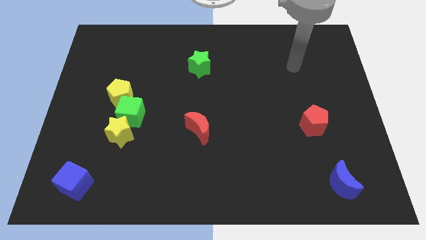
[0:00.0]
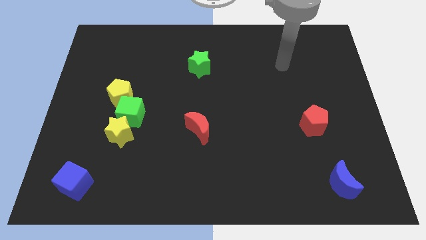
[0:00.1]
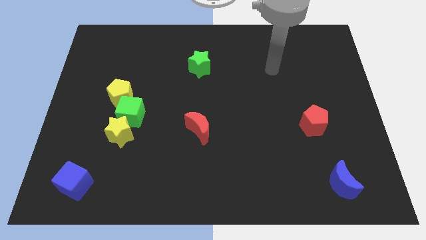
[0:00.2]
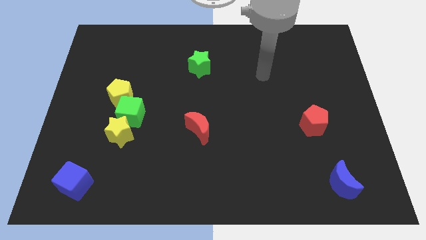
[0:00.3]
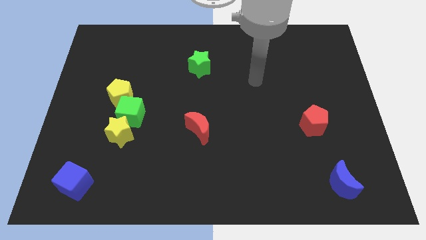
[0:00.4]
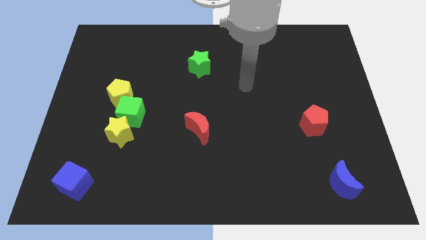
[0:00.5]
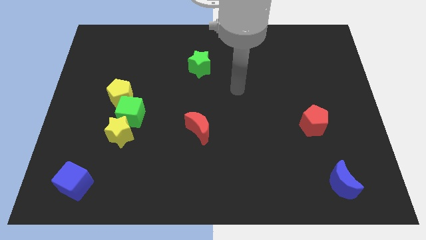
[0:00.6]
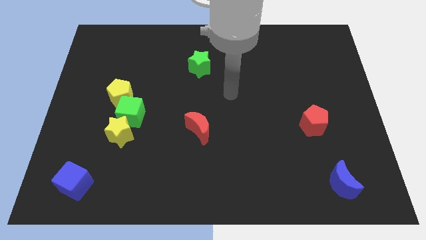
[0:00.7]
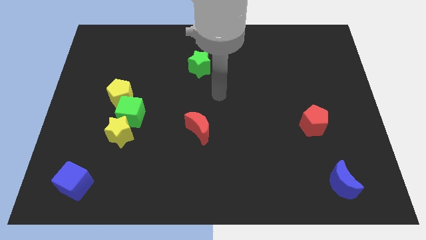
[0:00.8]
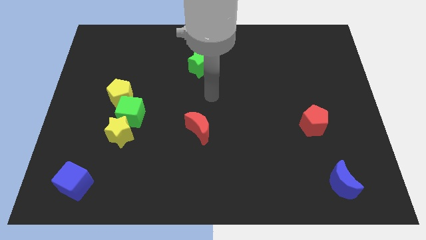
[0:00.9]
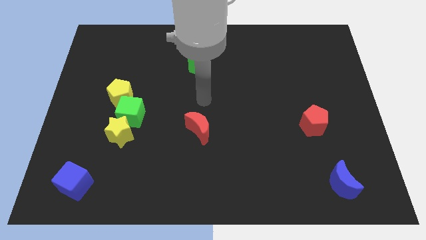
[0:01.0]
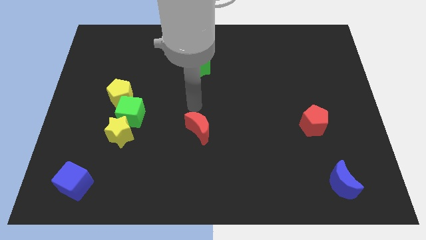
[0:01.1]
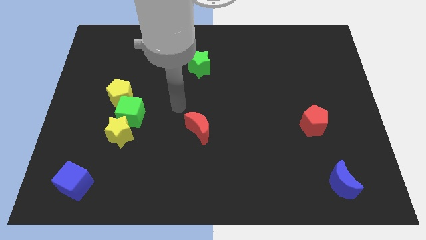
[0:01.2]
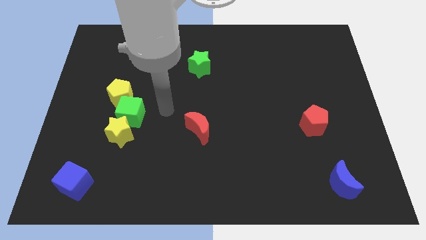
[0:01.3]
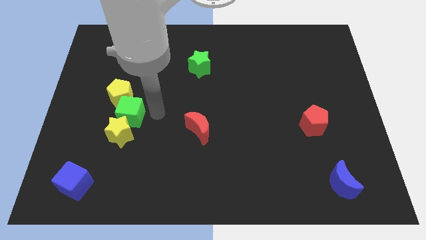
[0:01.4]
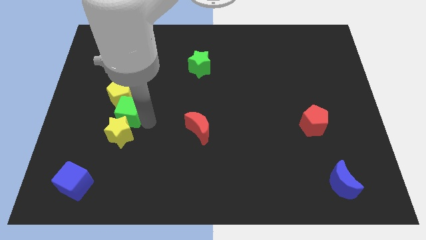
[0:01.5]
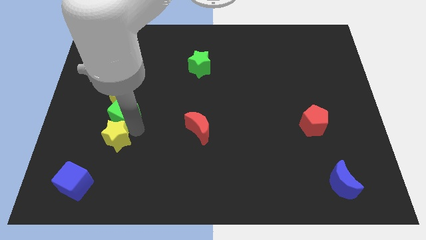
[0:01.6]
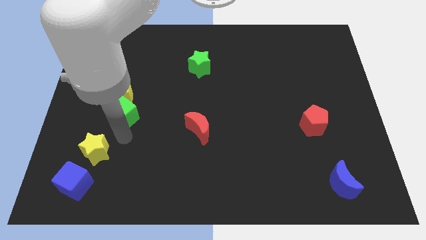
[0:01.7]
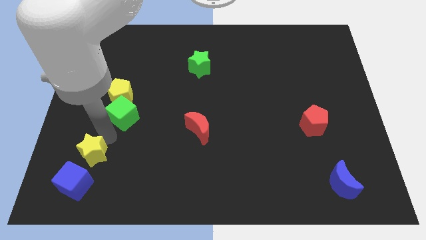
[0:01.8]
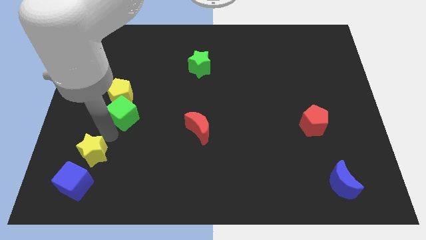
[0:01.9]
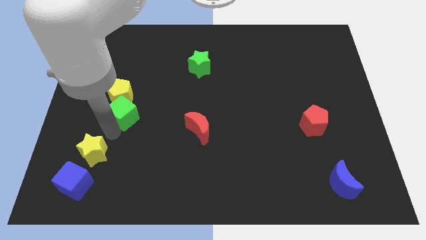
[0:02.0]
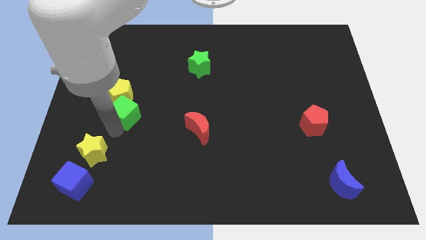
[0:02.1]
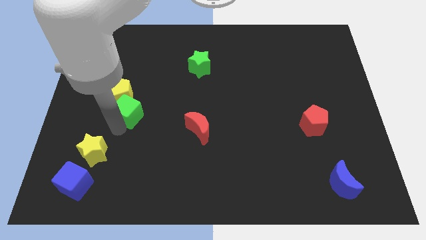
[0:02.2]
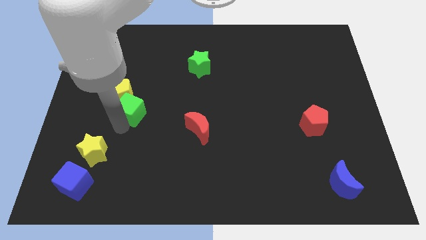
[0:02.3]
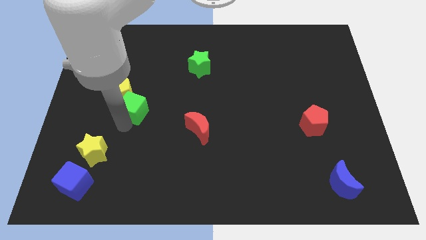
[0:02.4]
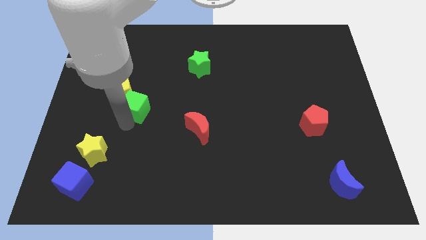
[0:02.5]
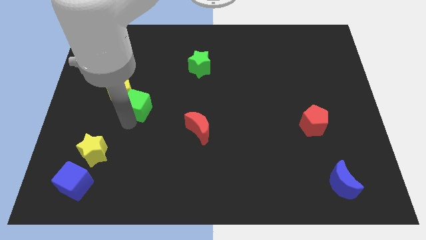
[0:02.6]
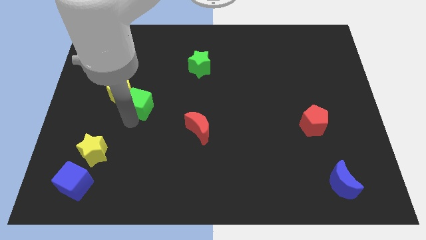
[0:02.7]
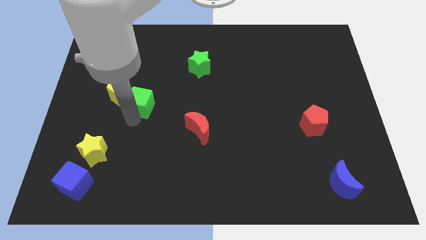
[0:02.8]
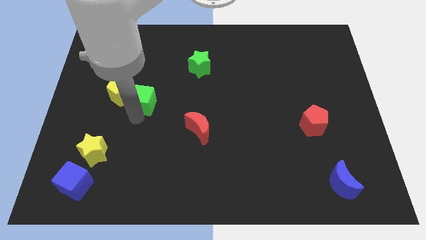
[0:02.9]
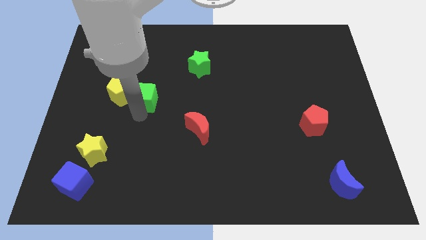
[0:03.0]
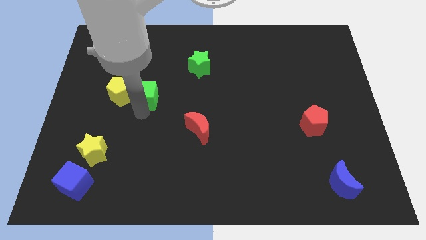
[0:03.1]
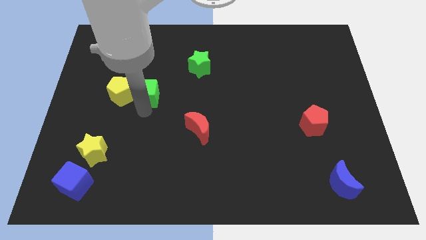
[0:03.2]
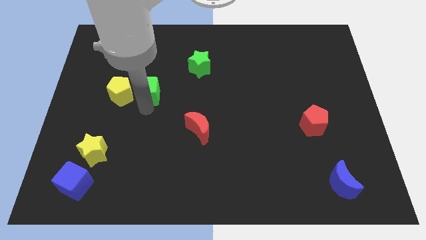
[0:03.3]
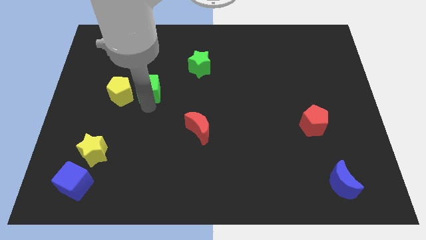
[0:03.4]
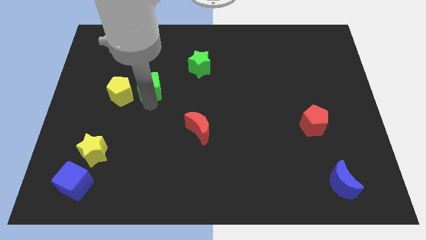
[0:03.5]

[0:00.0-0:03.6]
move the green cube a little upwards

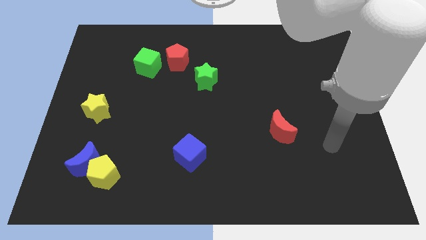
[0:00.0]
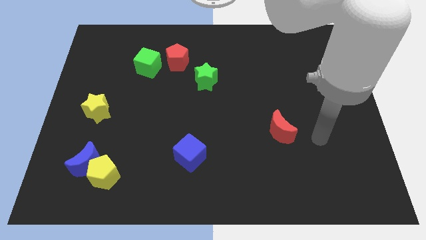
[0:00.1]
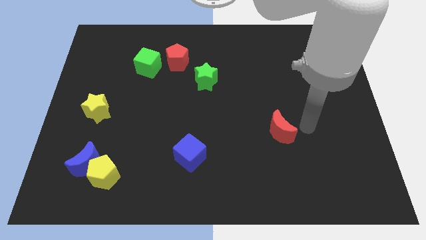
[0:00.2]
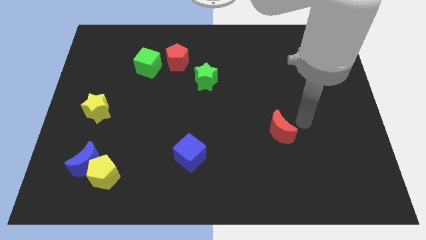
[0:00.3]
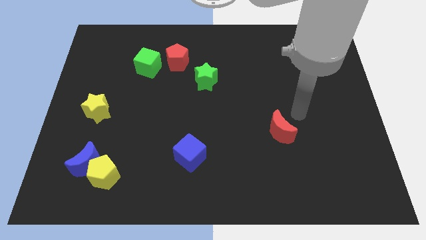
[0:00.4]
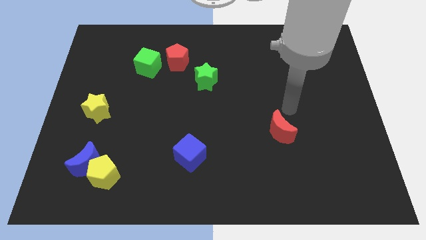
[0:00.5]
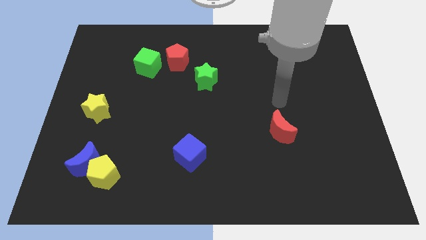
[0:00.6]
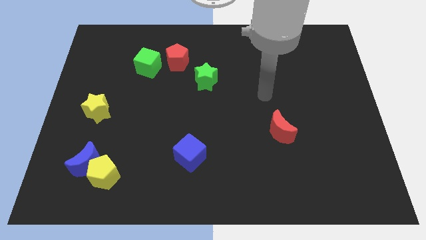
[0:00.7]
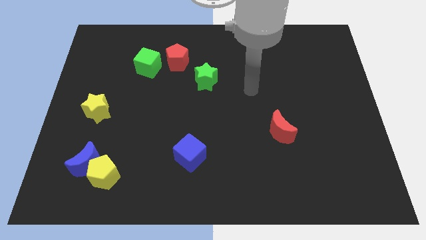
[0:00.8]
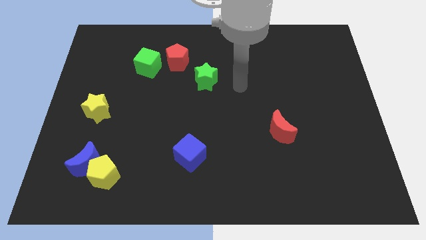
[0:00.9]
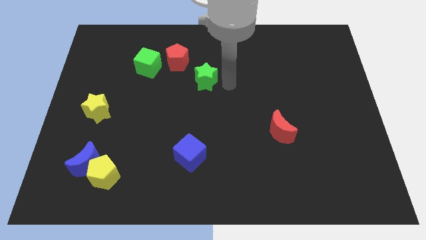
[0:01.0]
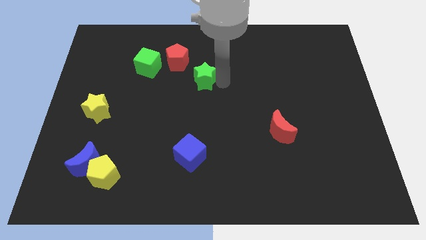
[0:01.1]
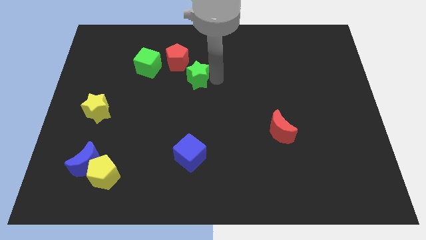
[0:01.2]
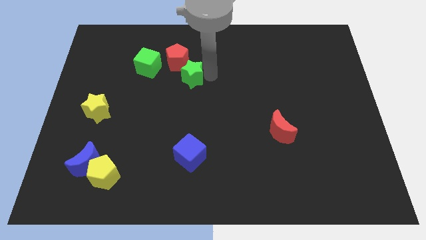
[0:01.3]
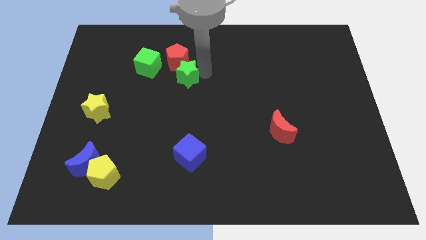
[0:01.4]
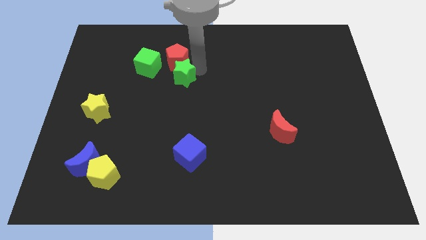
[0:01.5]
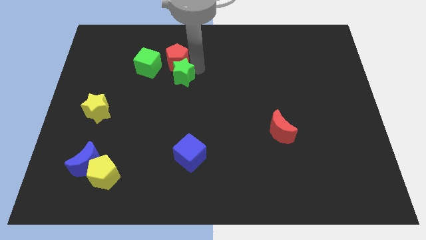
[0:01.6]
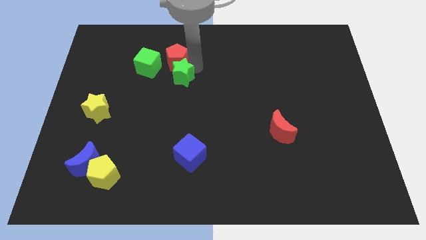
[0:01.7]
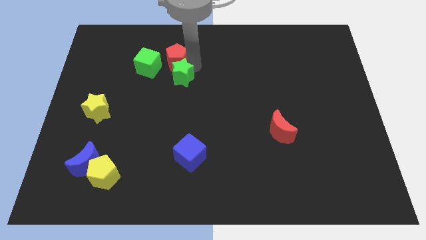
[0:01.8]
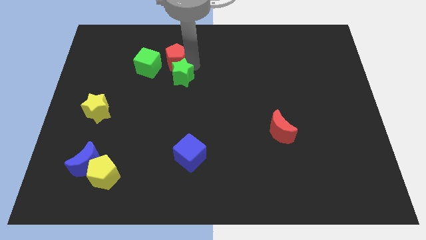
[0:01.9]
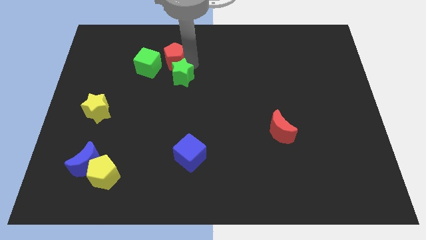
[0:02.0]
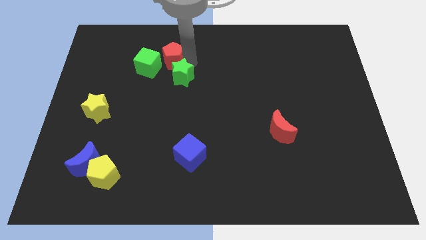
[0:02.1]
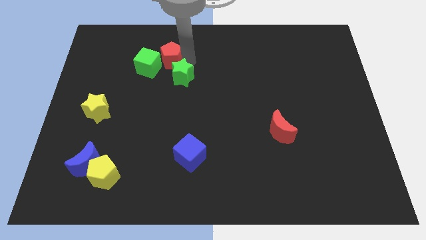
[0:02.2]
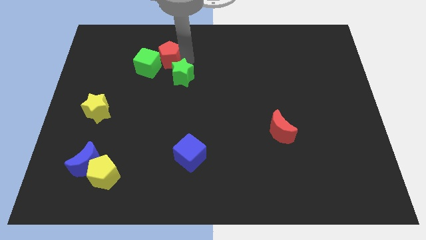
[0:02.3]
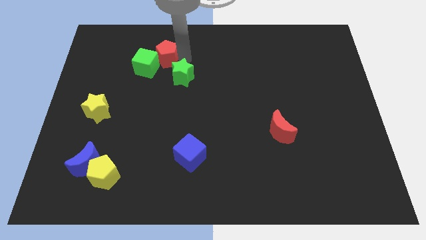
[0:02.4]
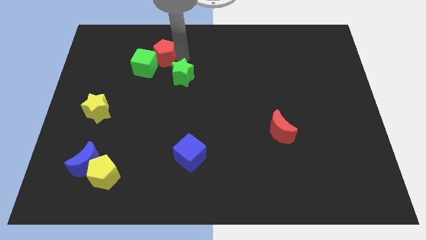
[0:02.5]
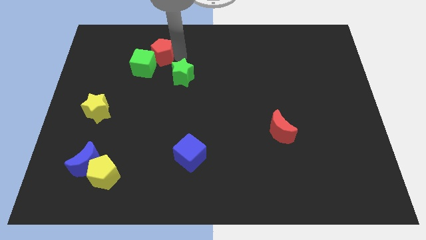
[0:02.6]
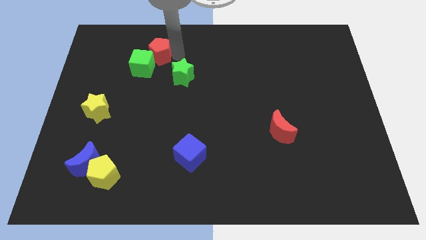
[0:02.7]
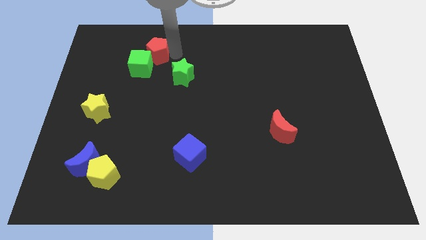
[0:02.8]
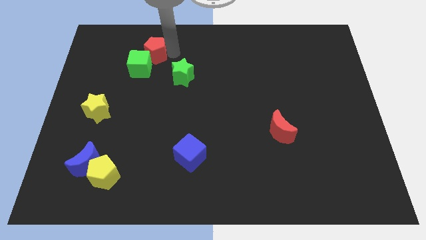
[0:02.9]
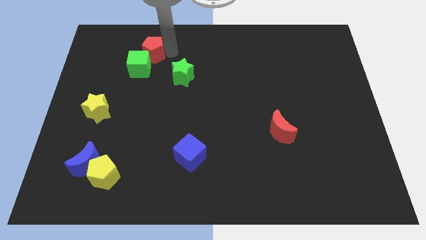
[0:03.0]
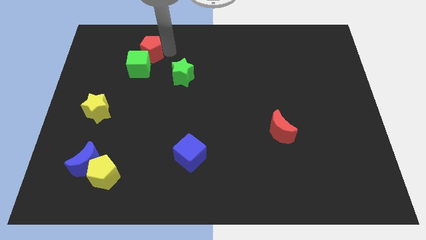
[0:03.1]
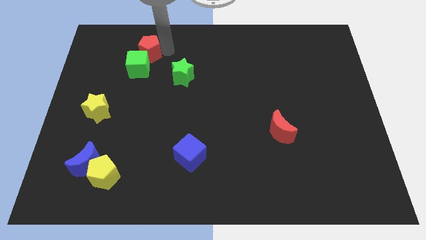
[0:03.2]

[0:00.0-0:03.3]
push the red pentagon to the left a little bit

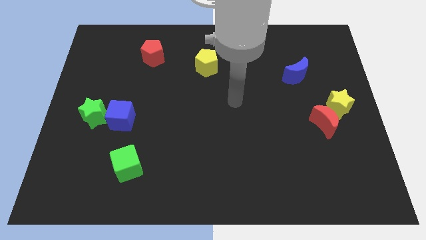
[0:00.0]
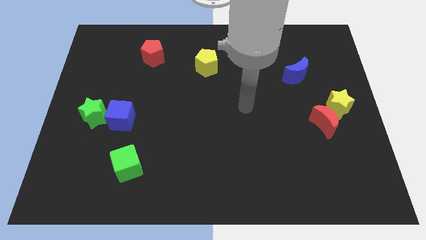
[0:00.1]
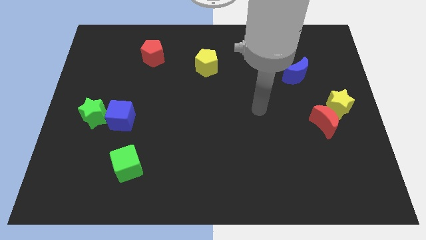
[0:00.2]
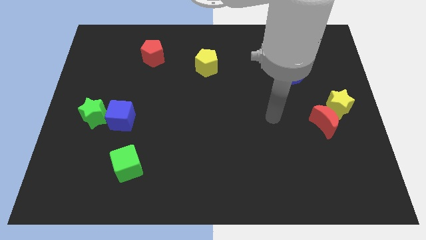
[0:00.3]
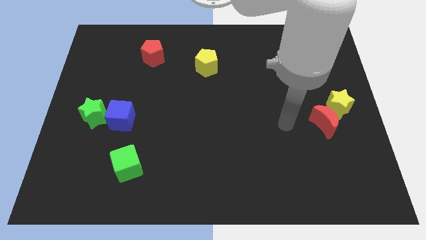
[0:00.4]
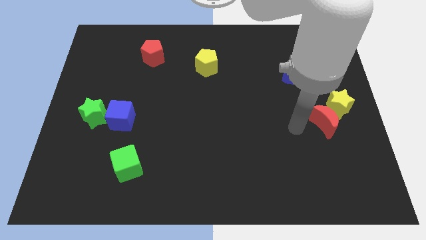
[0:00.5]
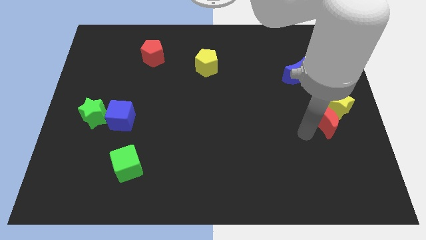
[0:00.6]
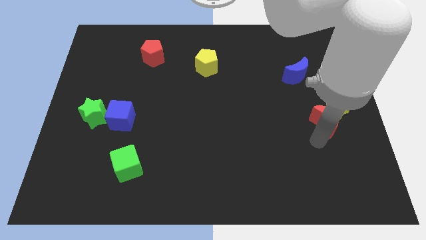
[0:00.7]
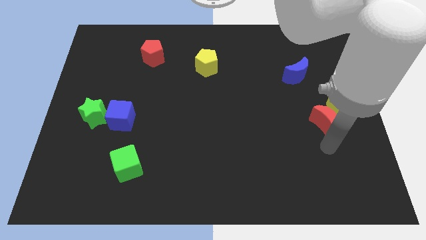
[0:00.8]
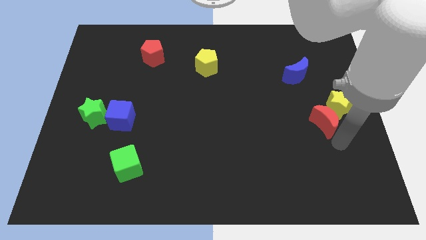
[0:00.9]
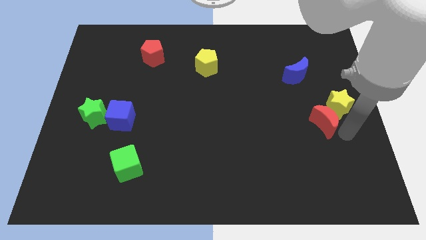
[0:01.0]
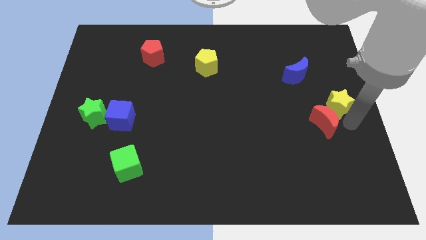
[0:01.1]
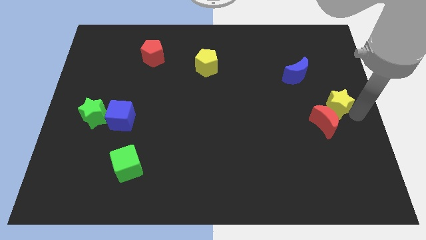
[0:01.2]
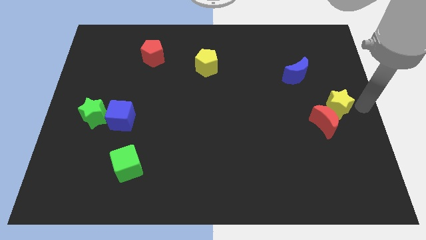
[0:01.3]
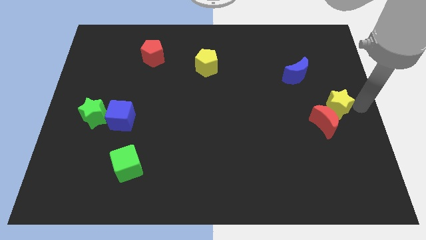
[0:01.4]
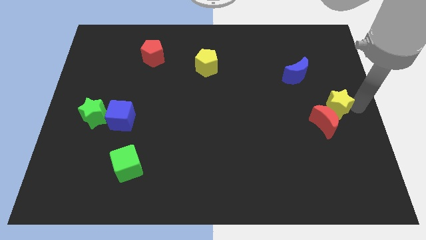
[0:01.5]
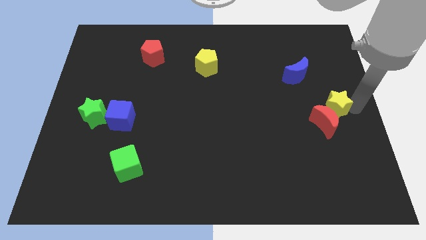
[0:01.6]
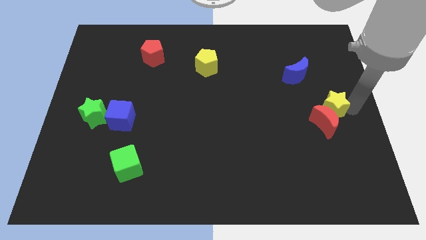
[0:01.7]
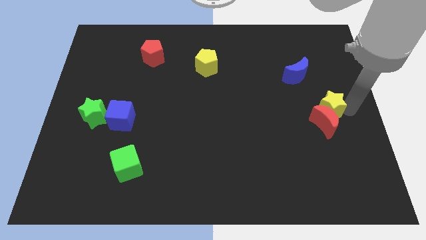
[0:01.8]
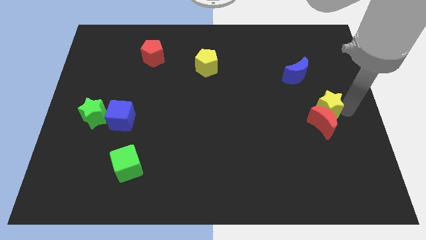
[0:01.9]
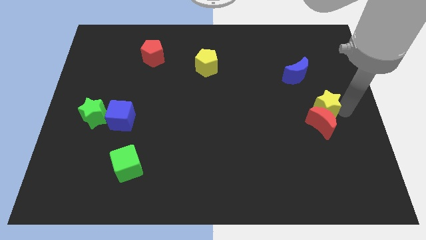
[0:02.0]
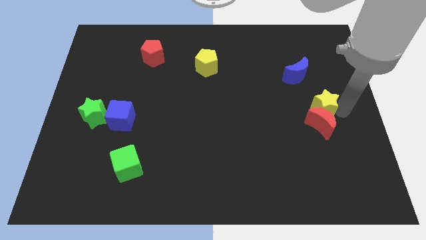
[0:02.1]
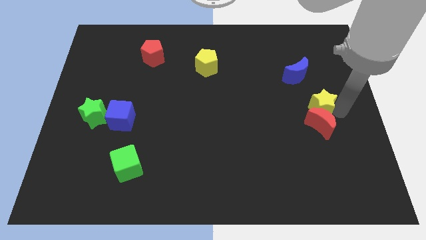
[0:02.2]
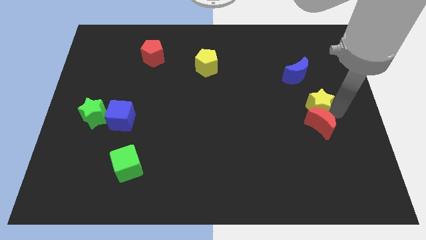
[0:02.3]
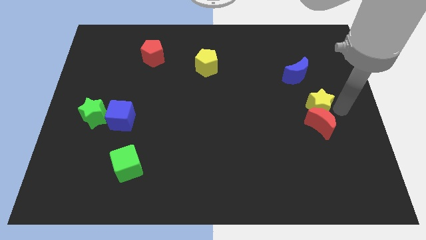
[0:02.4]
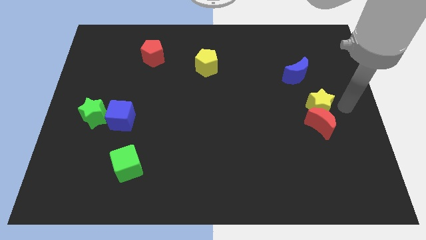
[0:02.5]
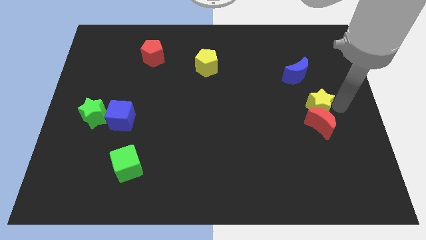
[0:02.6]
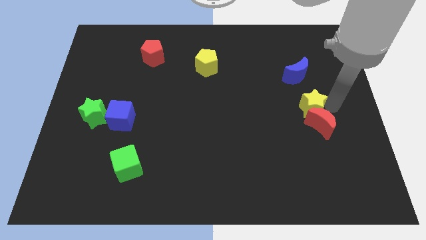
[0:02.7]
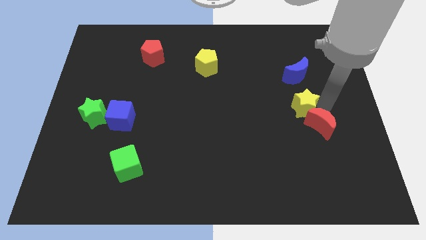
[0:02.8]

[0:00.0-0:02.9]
move the yellow star a little bit to the left
